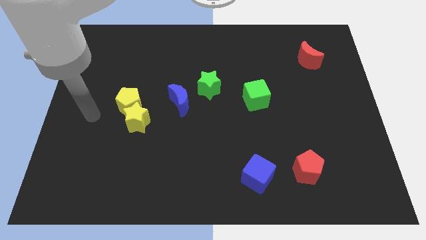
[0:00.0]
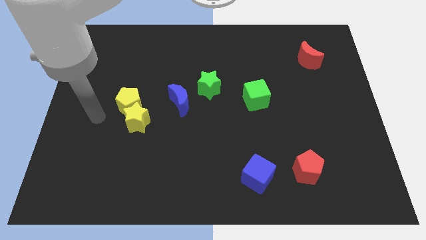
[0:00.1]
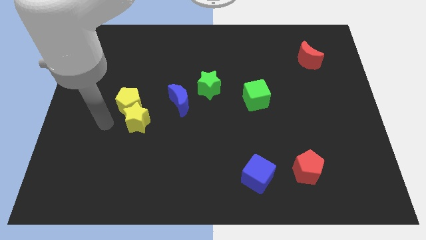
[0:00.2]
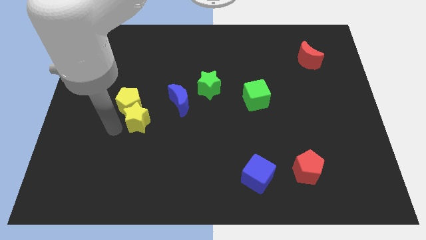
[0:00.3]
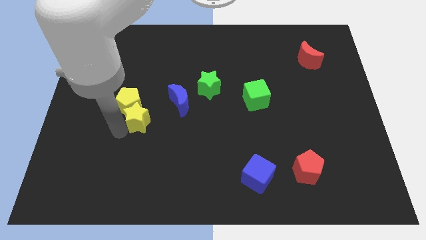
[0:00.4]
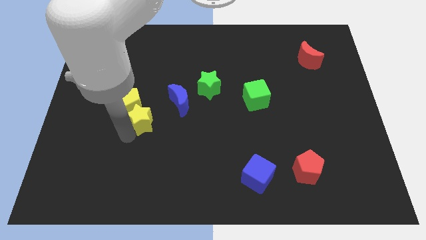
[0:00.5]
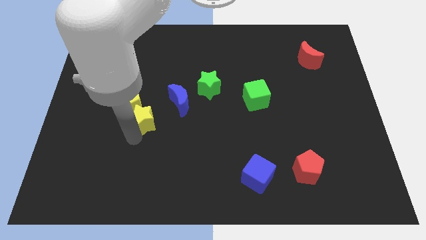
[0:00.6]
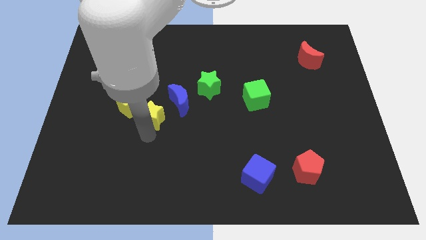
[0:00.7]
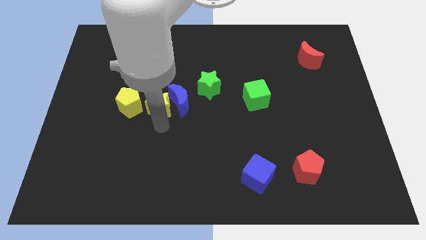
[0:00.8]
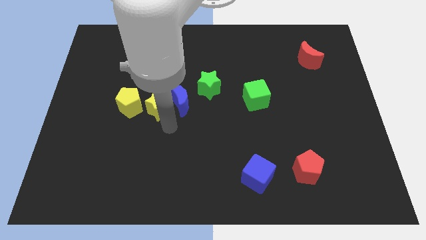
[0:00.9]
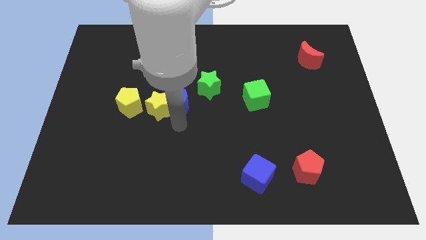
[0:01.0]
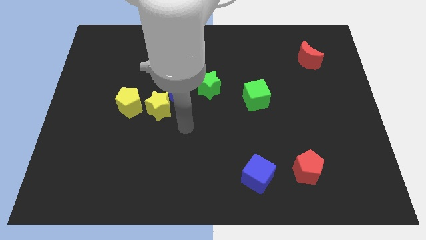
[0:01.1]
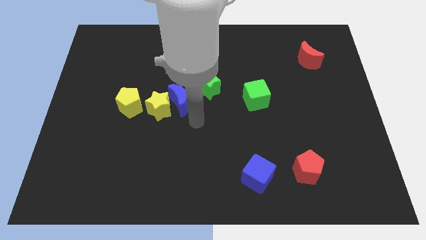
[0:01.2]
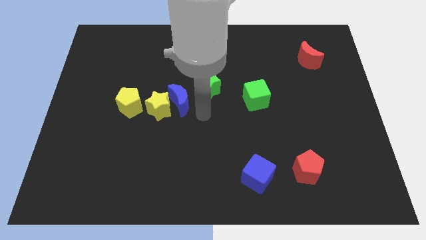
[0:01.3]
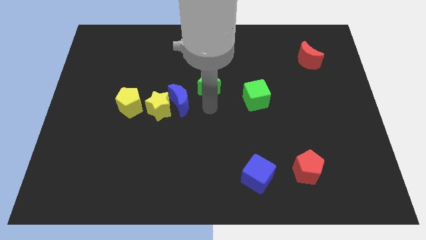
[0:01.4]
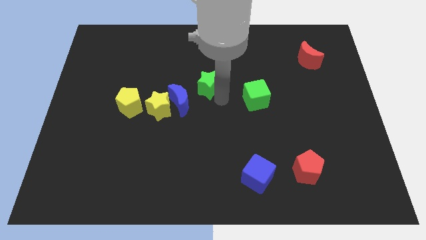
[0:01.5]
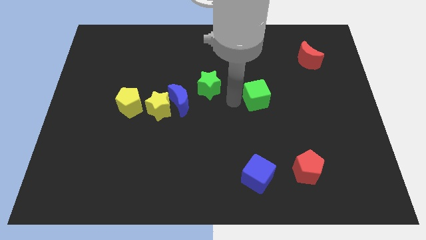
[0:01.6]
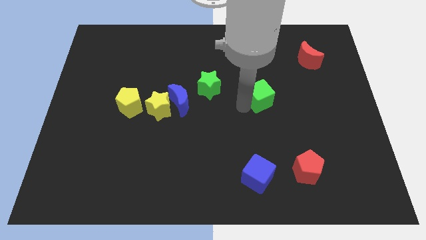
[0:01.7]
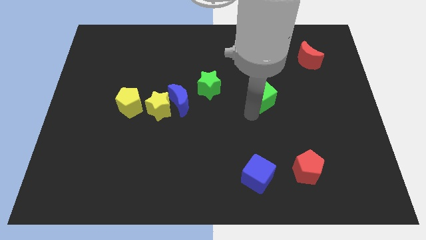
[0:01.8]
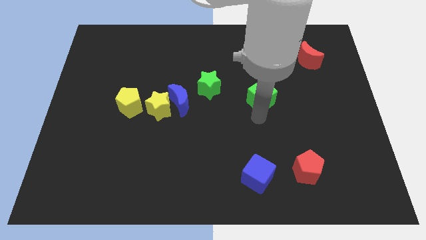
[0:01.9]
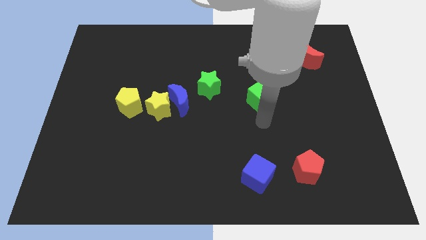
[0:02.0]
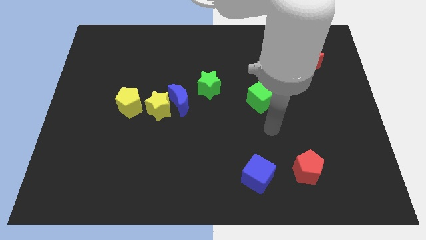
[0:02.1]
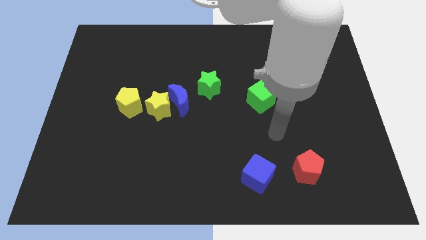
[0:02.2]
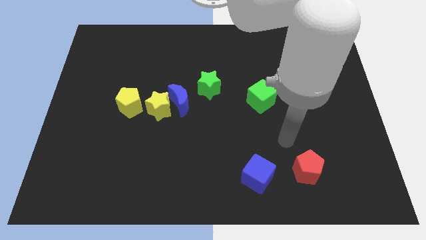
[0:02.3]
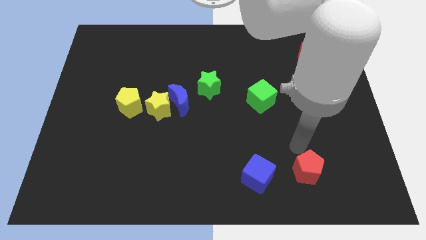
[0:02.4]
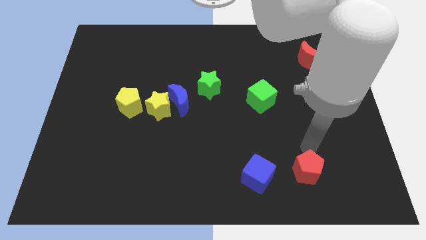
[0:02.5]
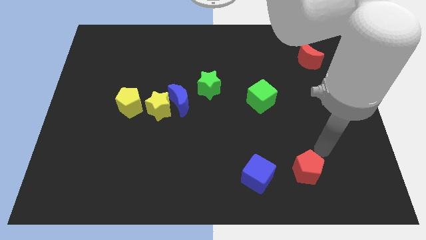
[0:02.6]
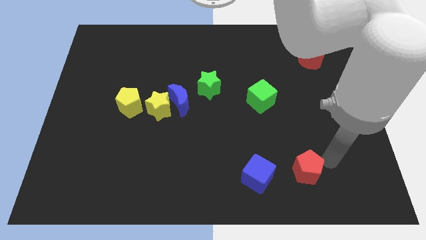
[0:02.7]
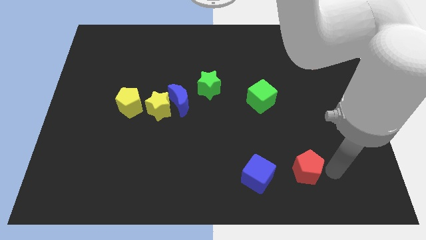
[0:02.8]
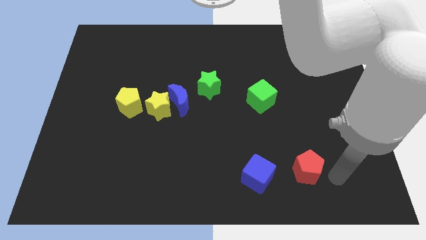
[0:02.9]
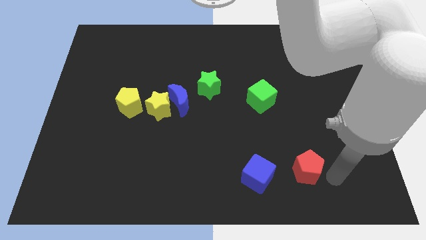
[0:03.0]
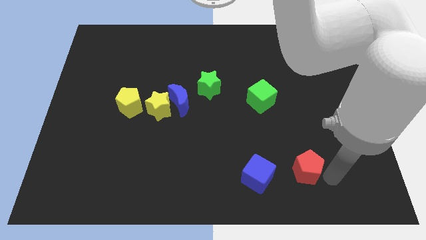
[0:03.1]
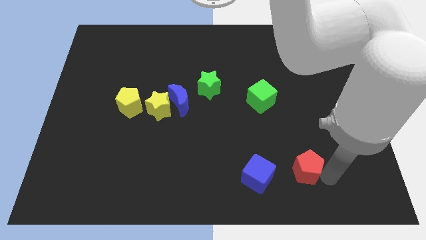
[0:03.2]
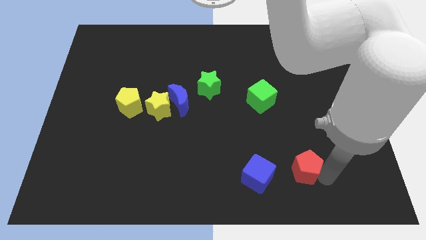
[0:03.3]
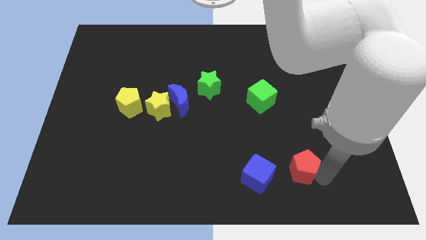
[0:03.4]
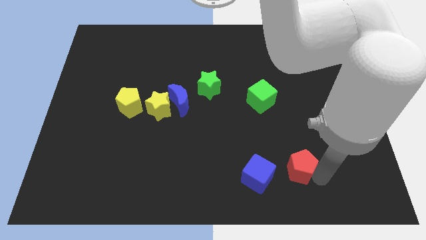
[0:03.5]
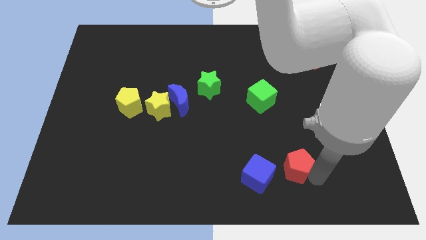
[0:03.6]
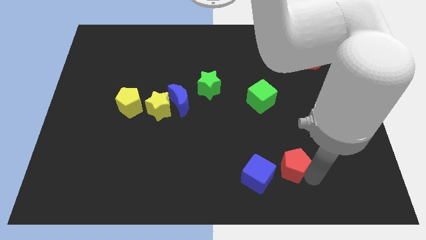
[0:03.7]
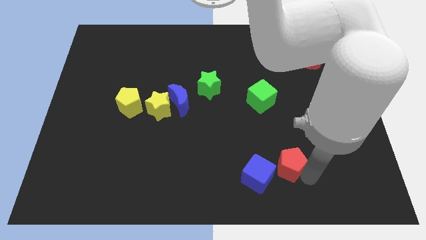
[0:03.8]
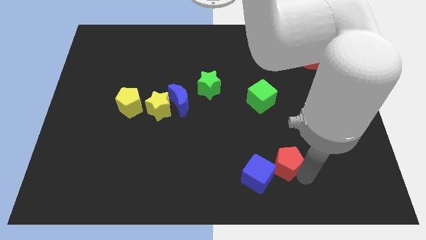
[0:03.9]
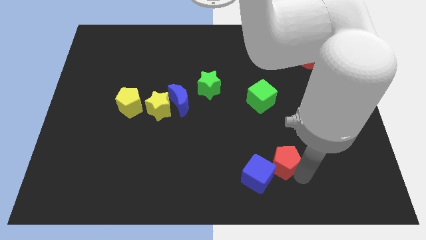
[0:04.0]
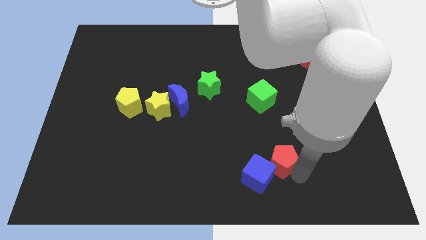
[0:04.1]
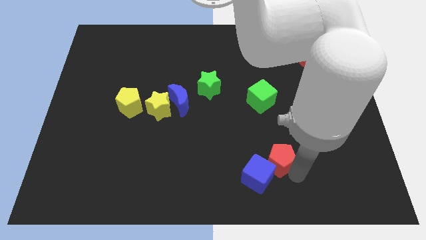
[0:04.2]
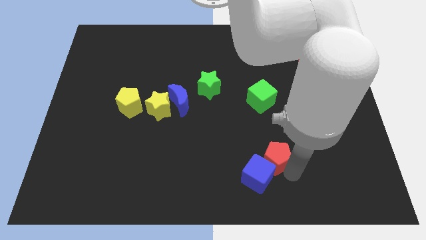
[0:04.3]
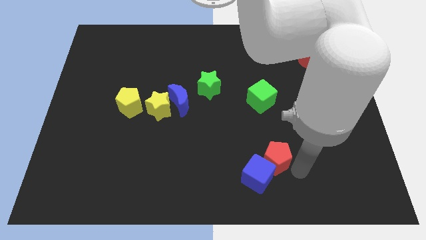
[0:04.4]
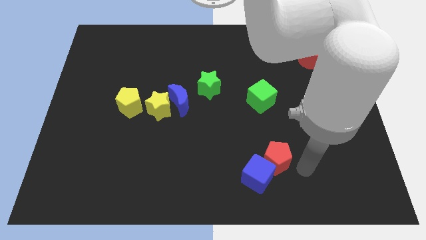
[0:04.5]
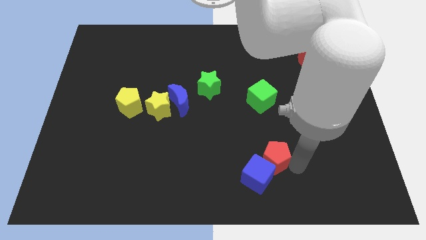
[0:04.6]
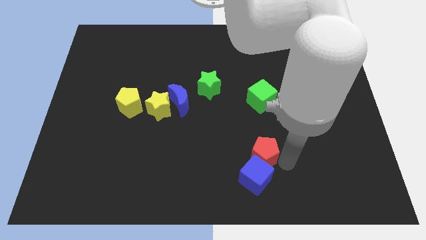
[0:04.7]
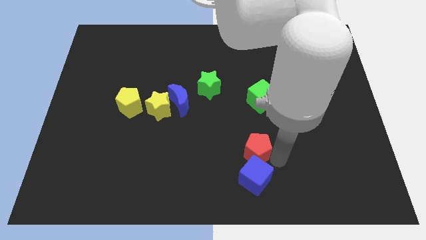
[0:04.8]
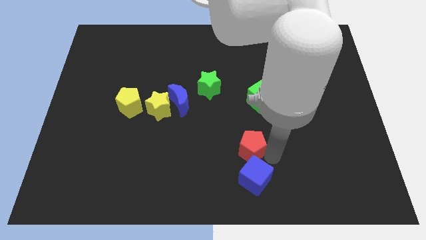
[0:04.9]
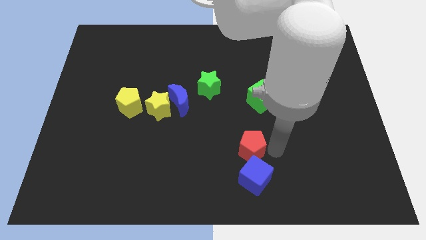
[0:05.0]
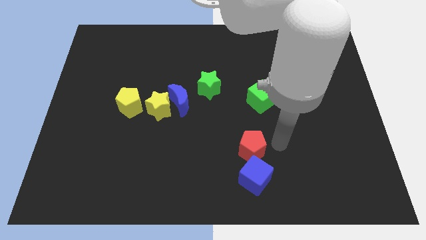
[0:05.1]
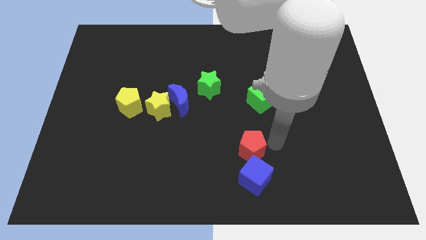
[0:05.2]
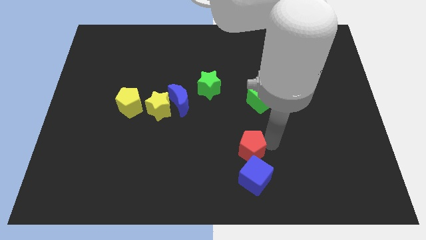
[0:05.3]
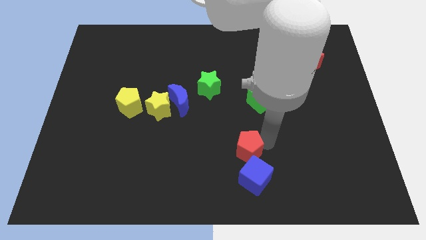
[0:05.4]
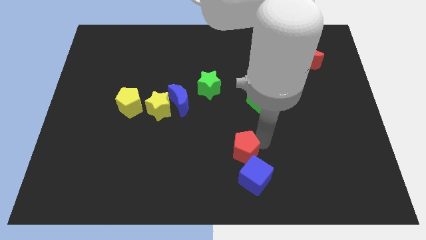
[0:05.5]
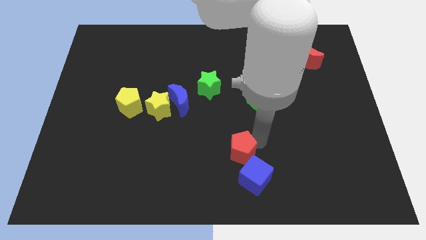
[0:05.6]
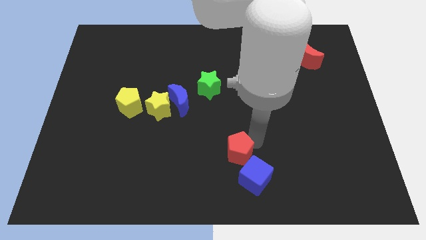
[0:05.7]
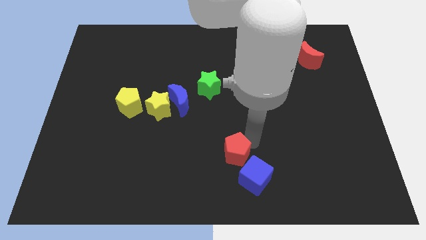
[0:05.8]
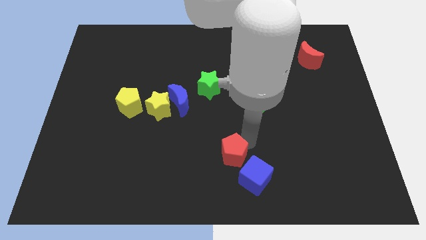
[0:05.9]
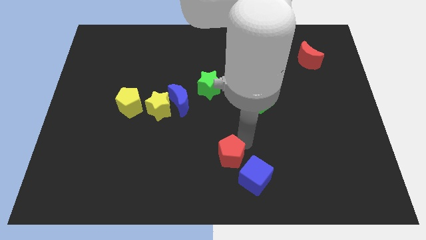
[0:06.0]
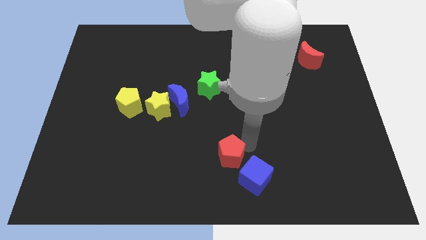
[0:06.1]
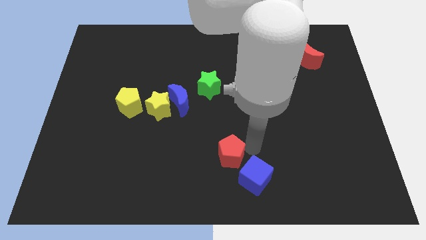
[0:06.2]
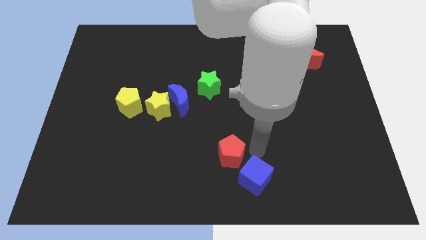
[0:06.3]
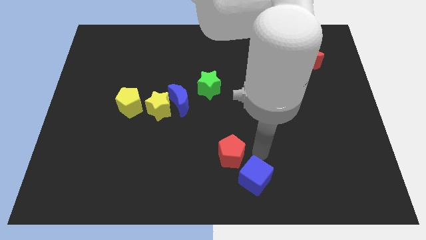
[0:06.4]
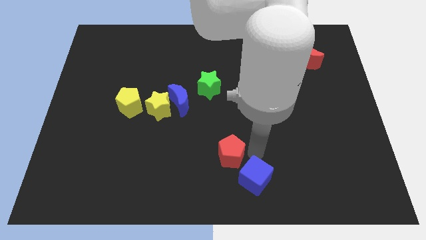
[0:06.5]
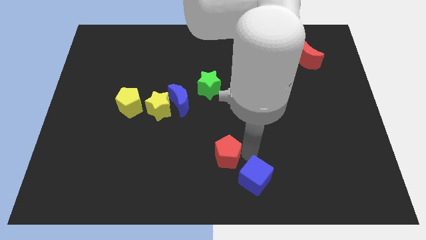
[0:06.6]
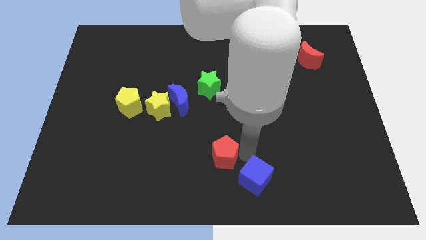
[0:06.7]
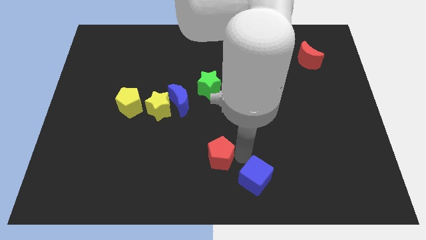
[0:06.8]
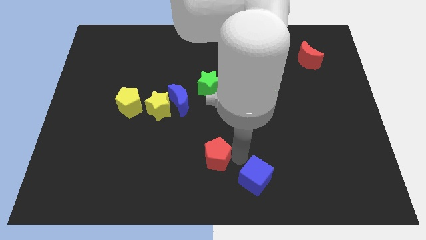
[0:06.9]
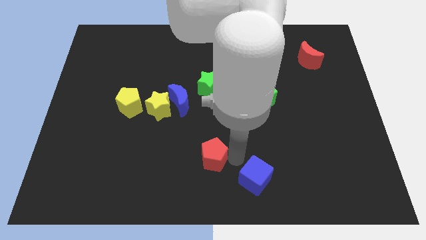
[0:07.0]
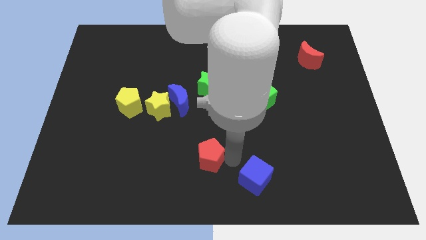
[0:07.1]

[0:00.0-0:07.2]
push the red pentagon to the left

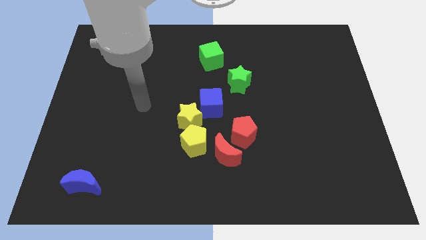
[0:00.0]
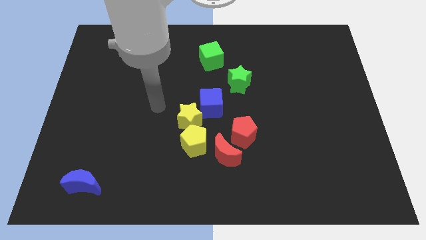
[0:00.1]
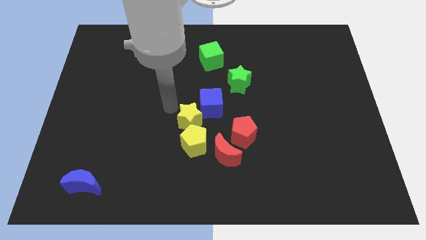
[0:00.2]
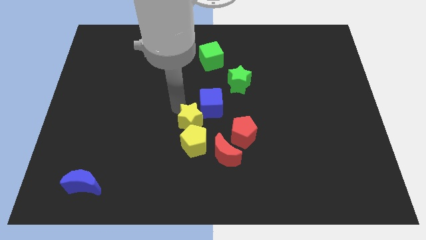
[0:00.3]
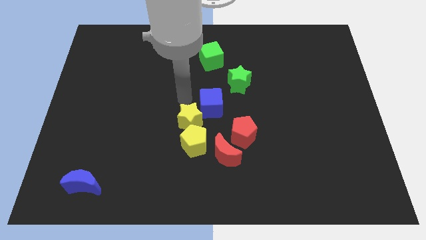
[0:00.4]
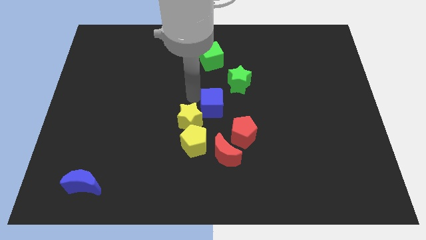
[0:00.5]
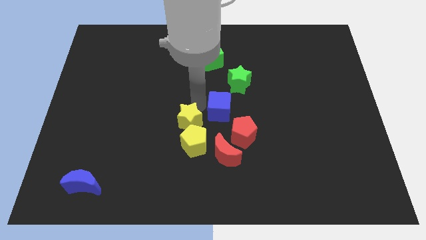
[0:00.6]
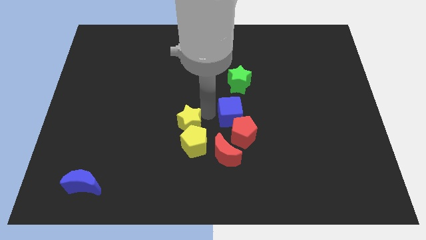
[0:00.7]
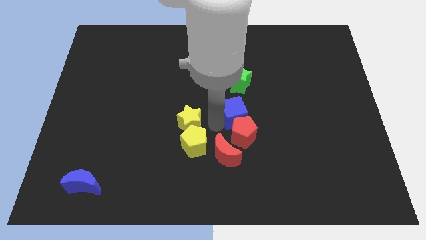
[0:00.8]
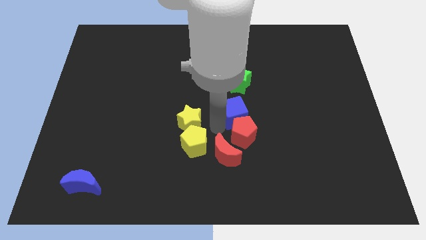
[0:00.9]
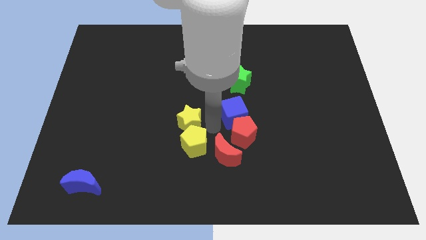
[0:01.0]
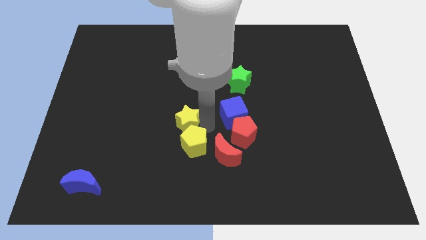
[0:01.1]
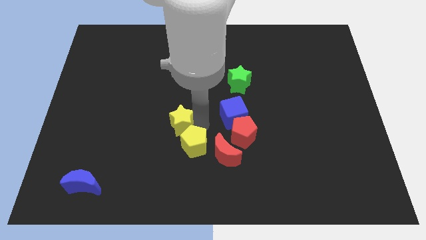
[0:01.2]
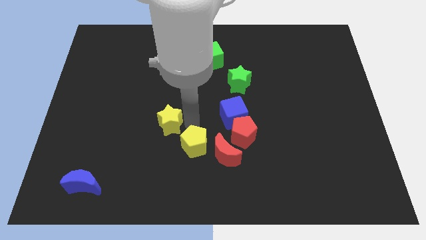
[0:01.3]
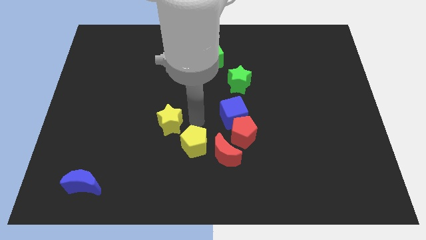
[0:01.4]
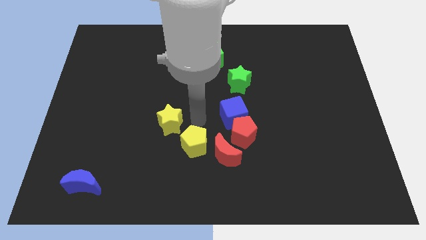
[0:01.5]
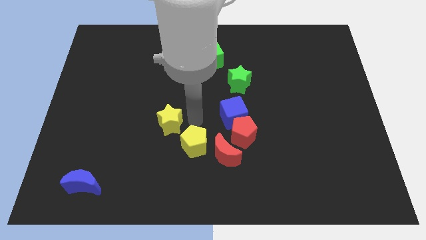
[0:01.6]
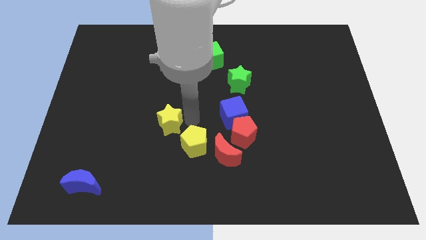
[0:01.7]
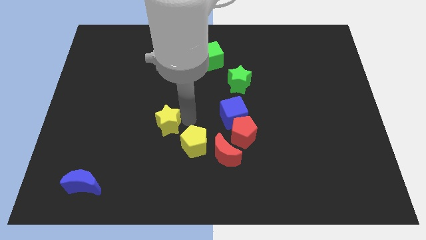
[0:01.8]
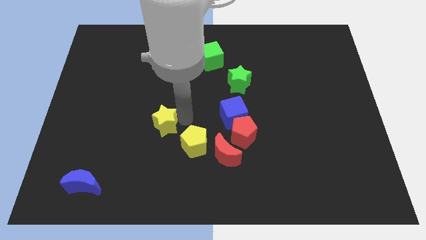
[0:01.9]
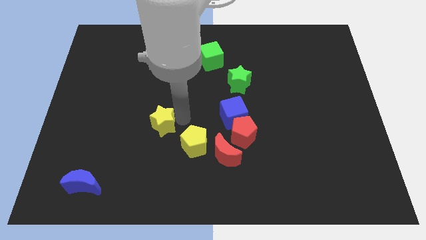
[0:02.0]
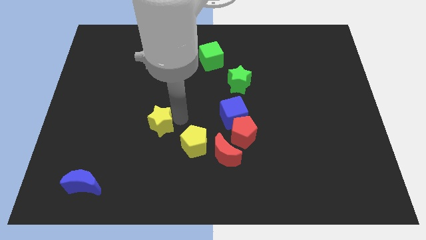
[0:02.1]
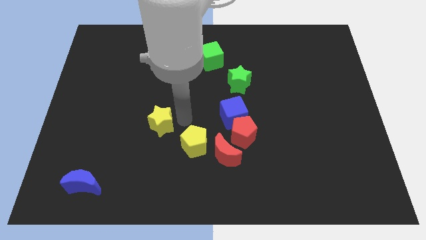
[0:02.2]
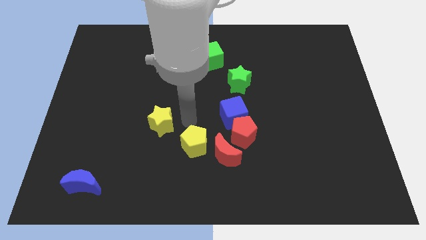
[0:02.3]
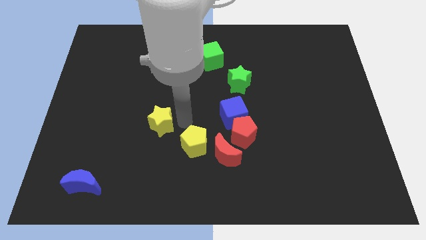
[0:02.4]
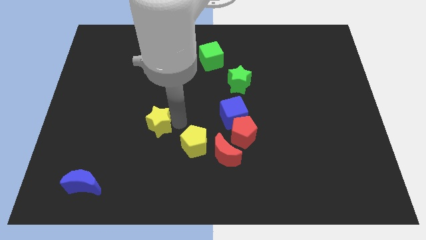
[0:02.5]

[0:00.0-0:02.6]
push the yellow star slightly left
